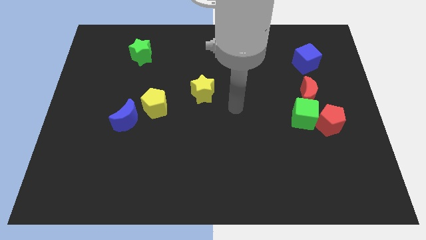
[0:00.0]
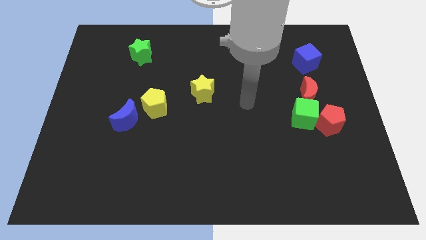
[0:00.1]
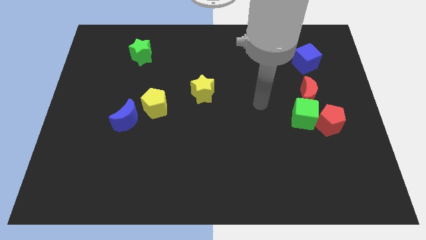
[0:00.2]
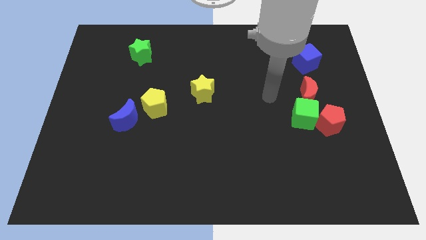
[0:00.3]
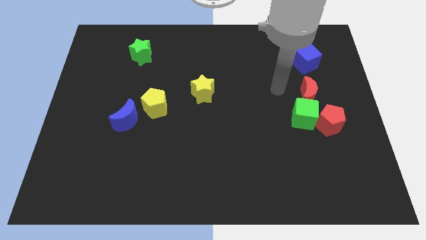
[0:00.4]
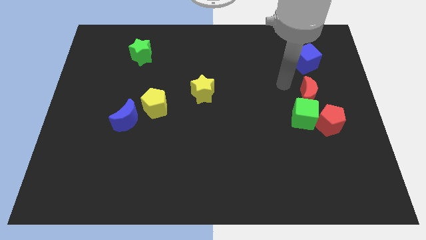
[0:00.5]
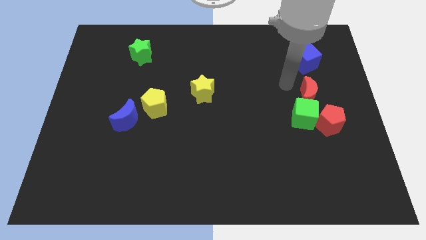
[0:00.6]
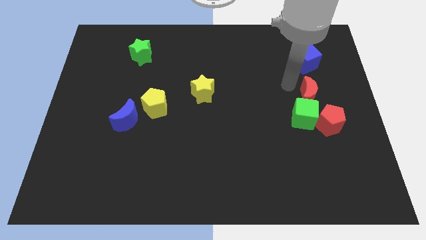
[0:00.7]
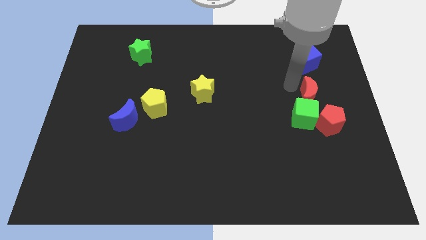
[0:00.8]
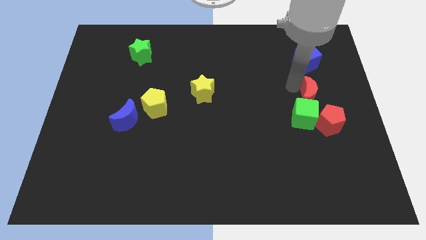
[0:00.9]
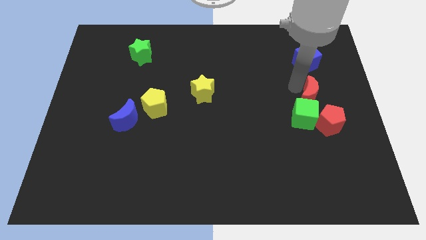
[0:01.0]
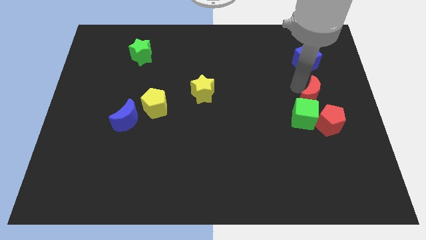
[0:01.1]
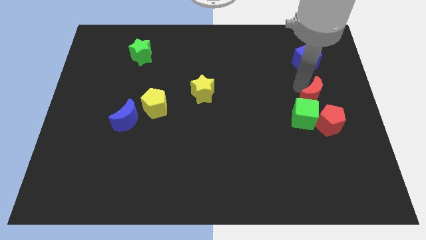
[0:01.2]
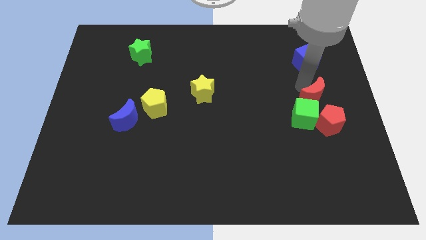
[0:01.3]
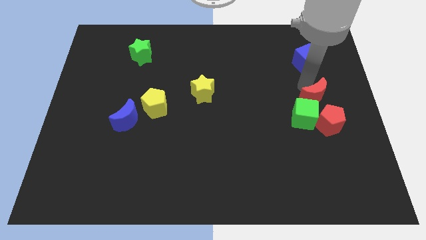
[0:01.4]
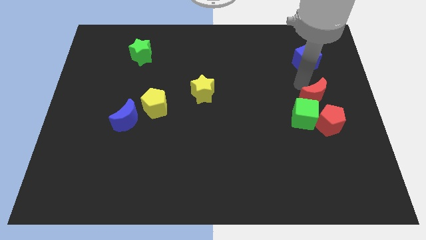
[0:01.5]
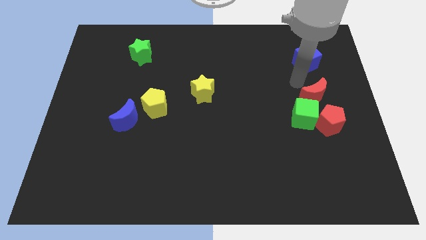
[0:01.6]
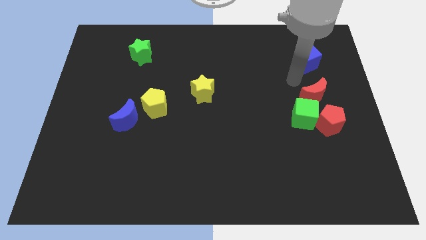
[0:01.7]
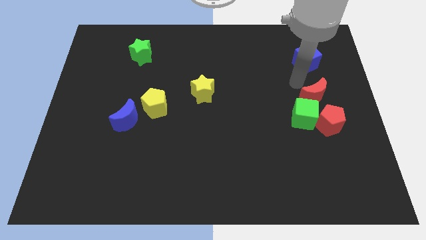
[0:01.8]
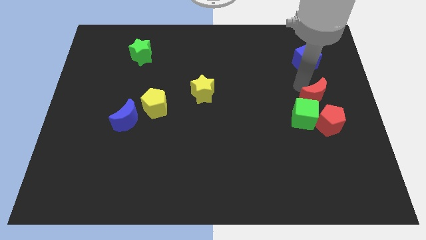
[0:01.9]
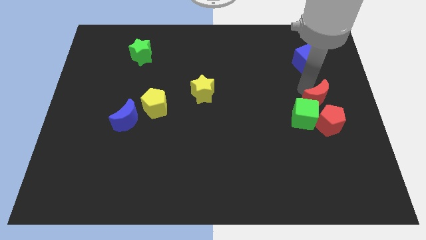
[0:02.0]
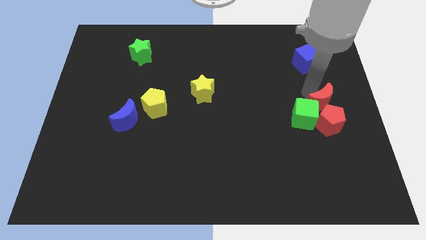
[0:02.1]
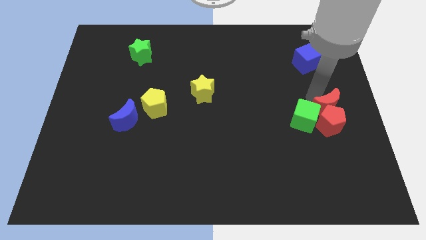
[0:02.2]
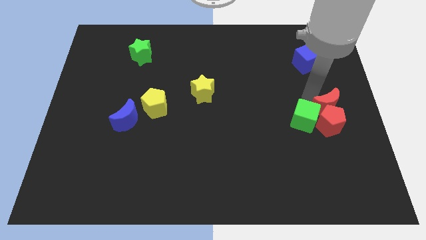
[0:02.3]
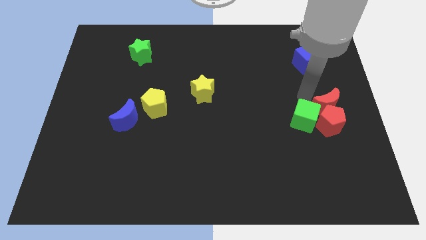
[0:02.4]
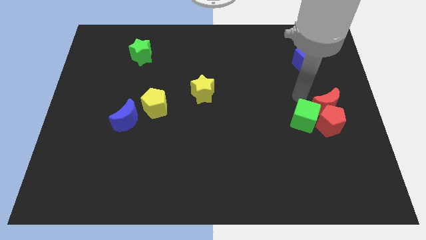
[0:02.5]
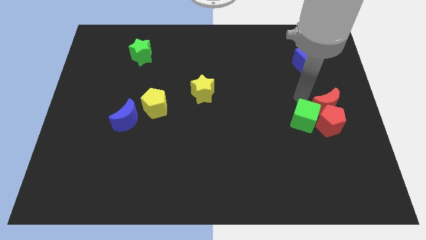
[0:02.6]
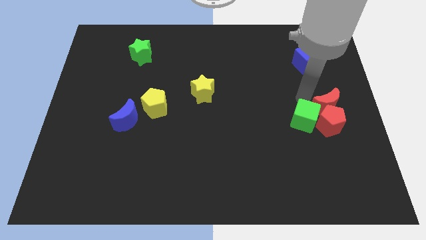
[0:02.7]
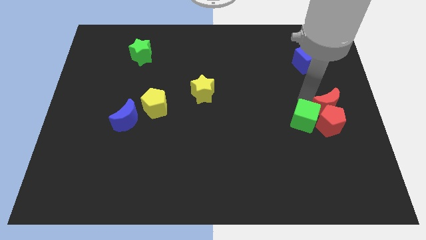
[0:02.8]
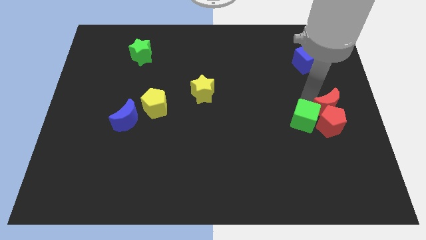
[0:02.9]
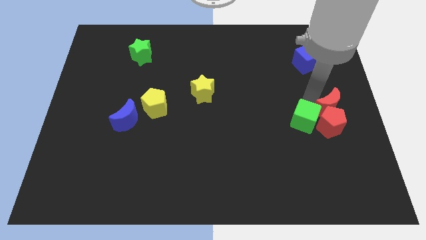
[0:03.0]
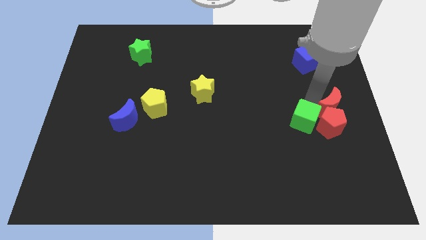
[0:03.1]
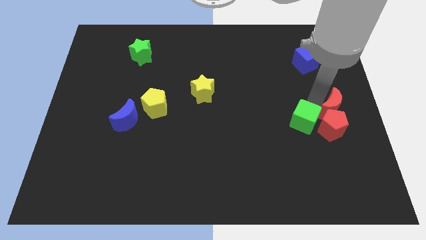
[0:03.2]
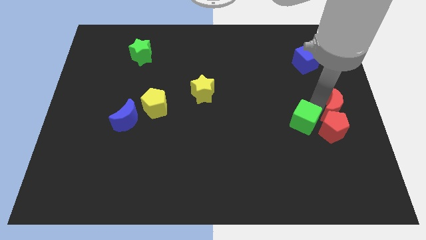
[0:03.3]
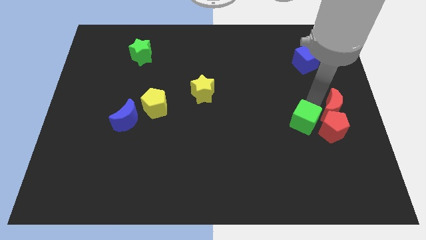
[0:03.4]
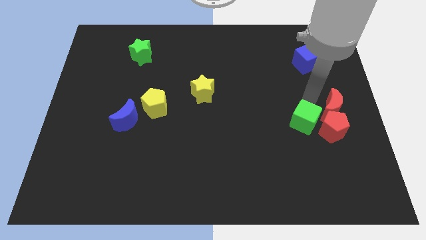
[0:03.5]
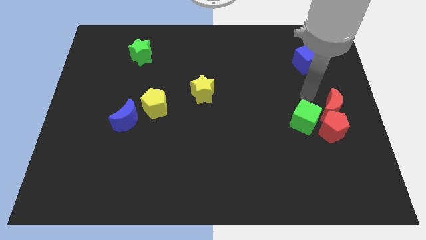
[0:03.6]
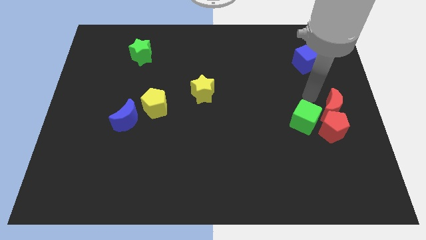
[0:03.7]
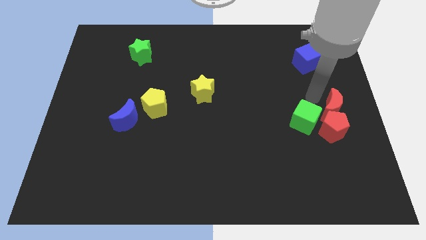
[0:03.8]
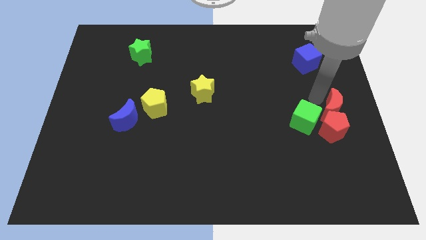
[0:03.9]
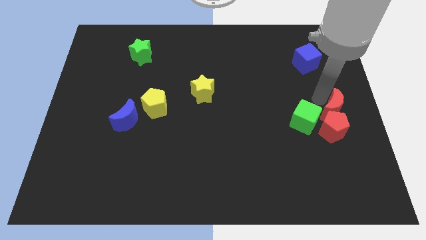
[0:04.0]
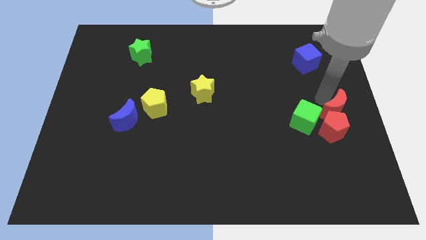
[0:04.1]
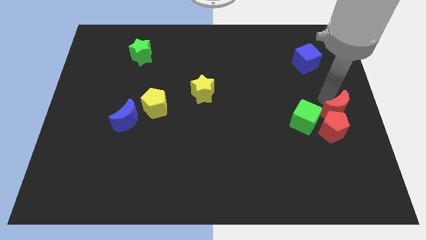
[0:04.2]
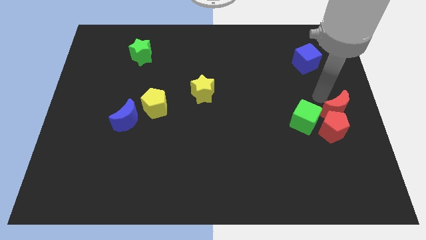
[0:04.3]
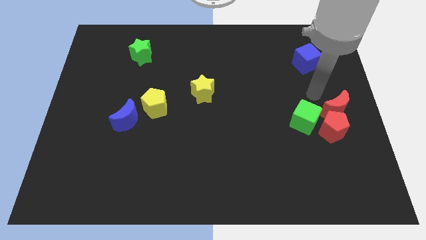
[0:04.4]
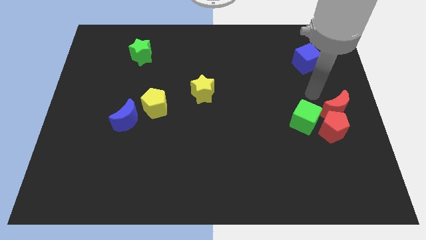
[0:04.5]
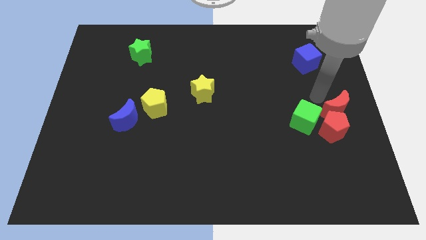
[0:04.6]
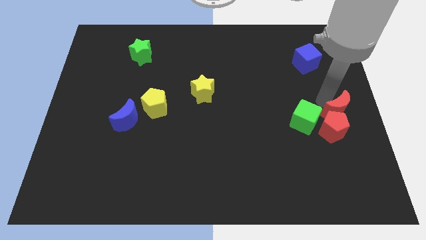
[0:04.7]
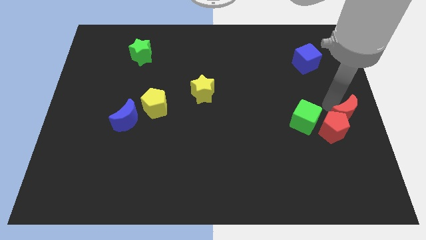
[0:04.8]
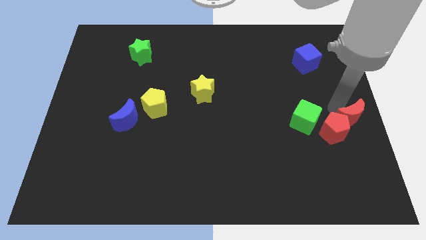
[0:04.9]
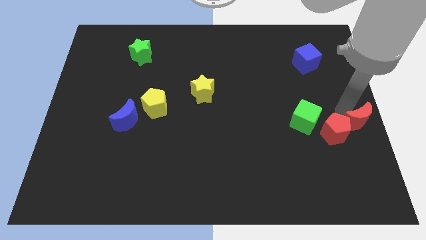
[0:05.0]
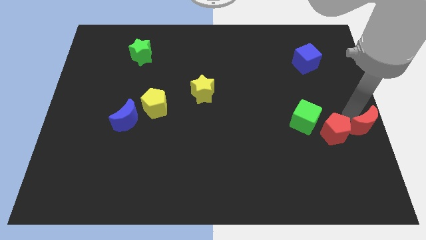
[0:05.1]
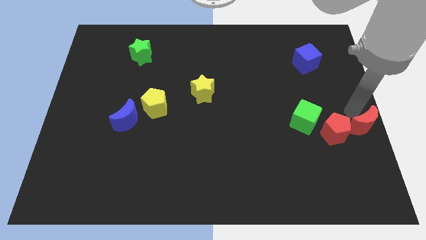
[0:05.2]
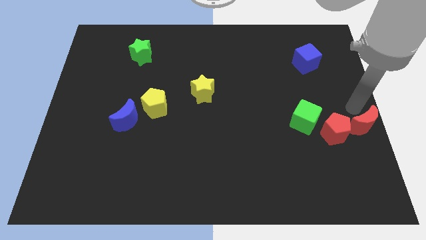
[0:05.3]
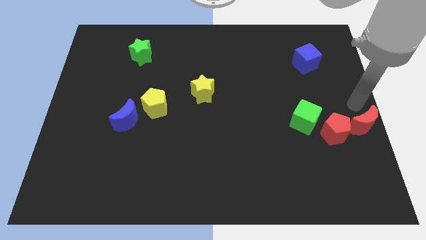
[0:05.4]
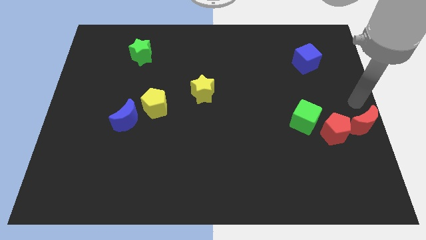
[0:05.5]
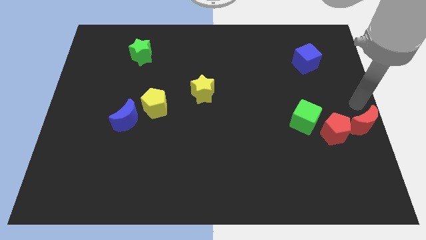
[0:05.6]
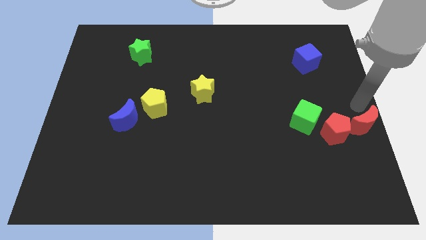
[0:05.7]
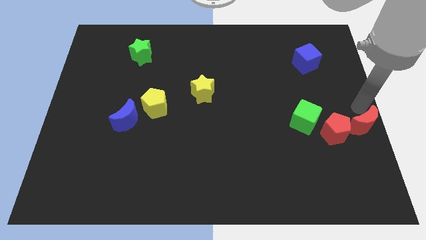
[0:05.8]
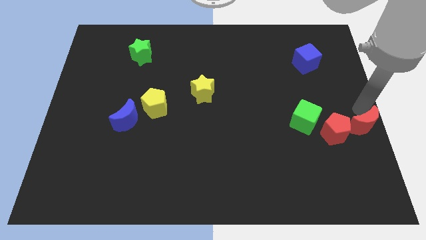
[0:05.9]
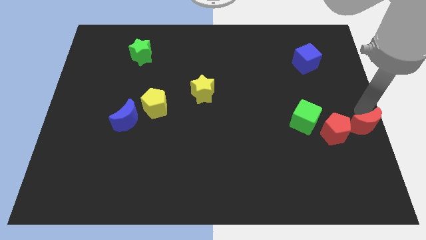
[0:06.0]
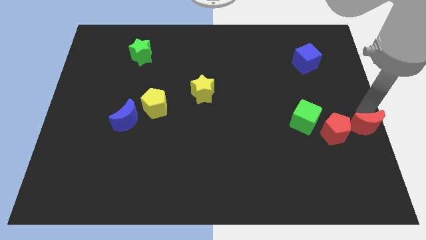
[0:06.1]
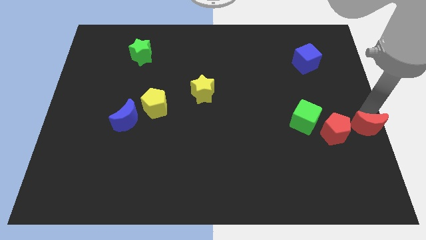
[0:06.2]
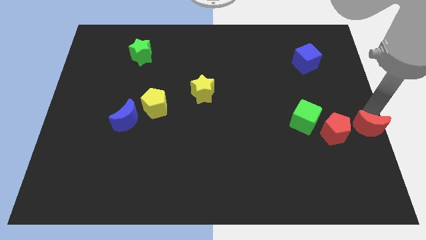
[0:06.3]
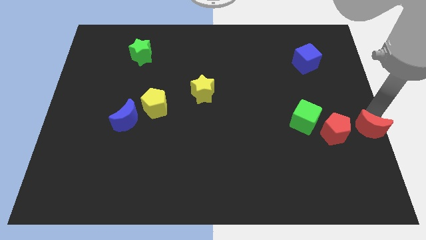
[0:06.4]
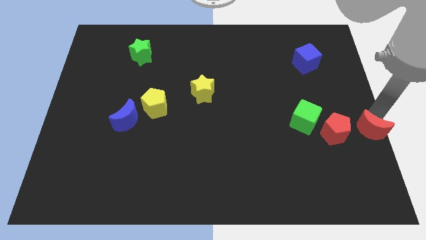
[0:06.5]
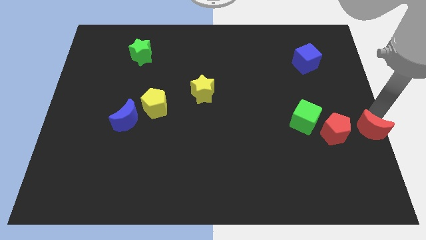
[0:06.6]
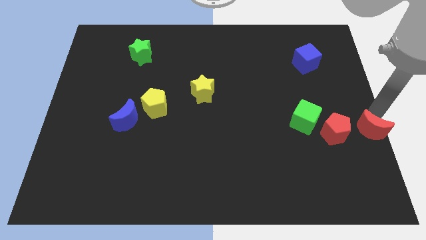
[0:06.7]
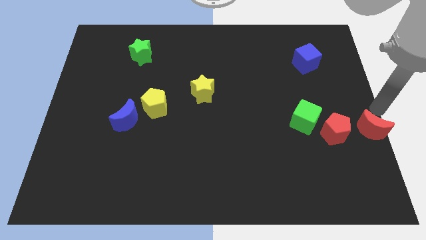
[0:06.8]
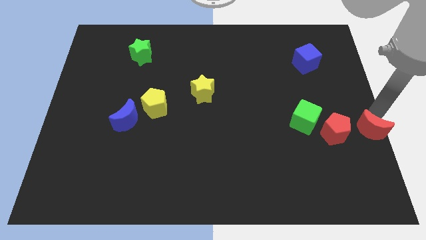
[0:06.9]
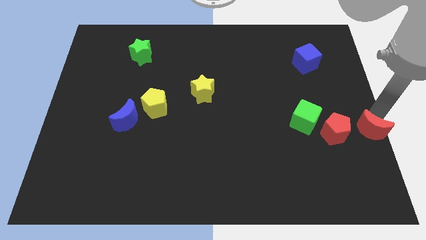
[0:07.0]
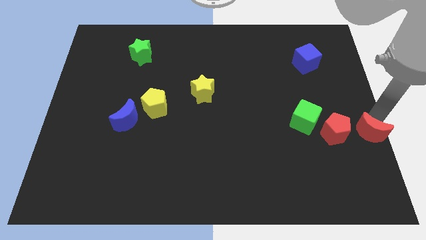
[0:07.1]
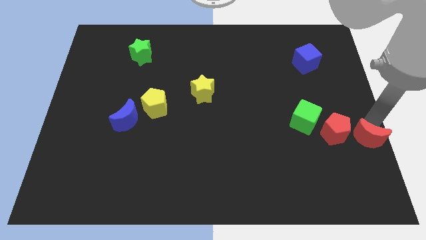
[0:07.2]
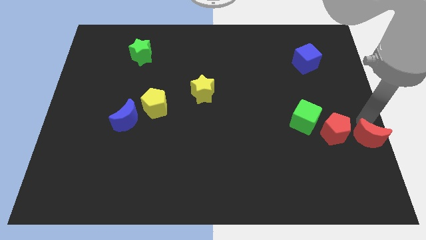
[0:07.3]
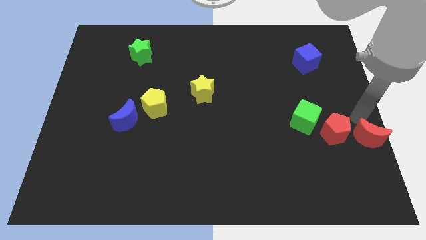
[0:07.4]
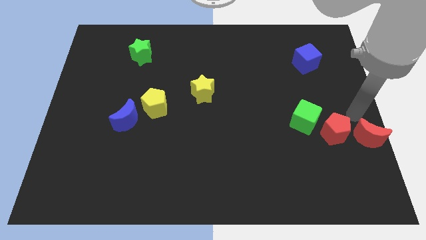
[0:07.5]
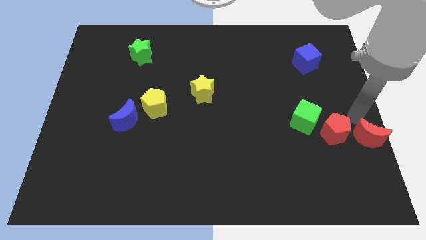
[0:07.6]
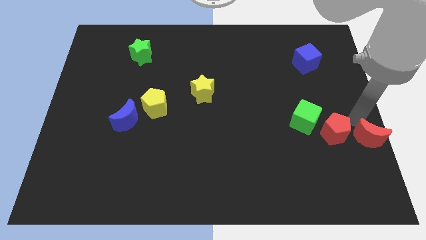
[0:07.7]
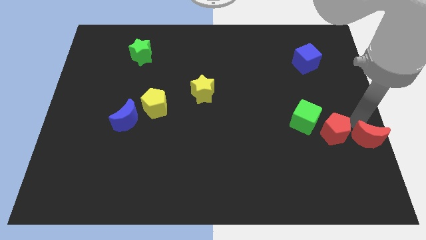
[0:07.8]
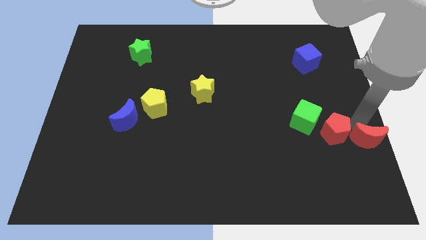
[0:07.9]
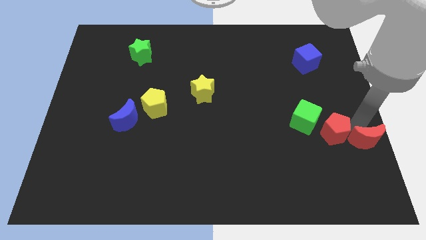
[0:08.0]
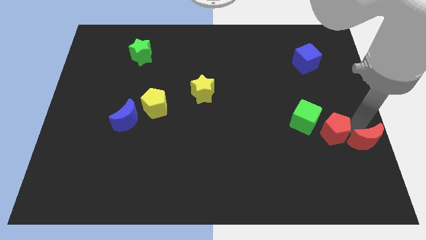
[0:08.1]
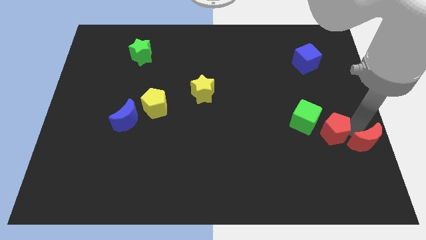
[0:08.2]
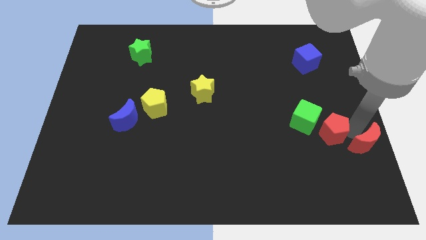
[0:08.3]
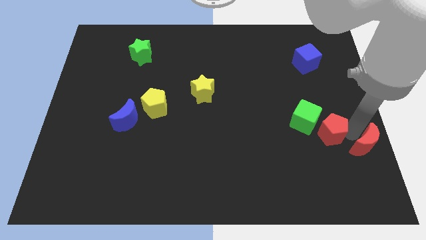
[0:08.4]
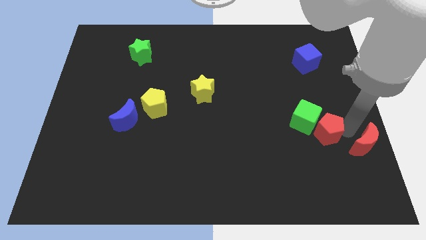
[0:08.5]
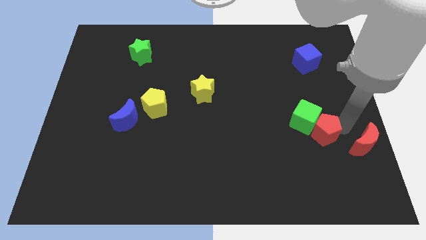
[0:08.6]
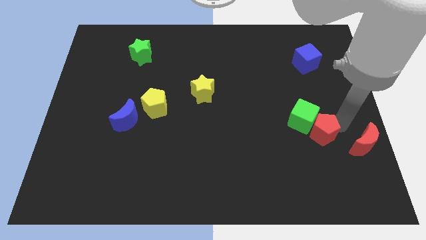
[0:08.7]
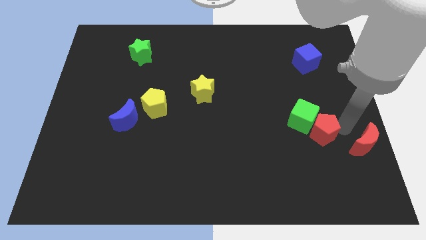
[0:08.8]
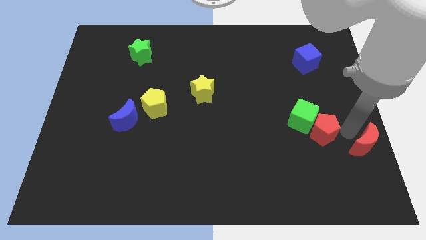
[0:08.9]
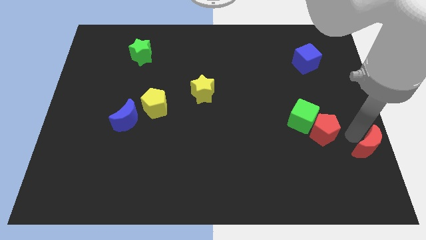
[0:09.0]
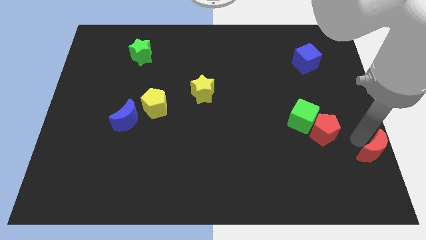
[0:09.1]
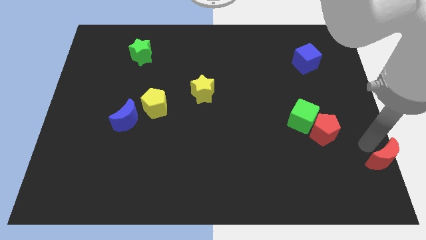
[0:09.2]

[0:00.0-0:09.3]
push the red moon to the bottom right corner
